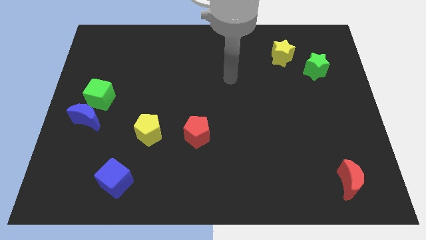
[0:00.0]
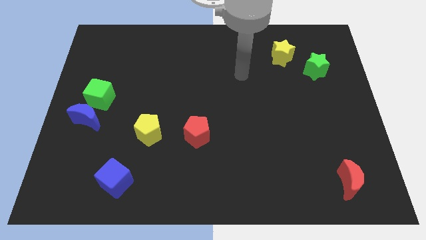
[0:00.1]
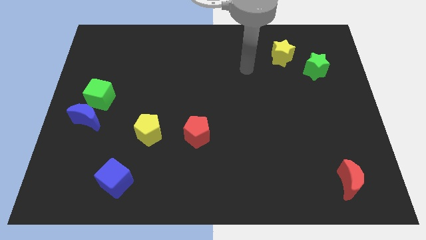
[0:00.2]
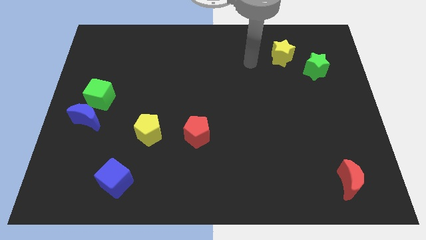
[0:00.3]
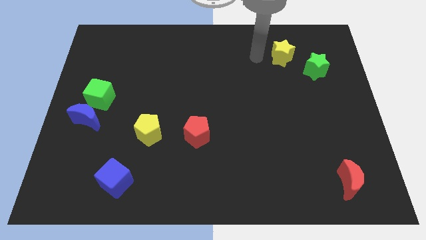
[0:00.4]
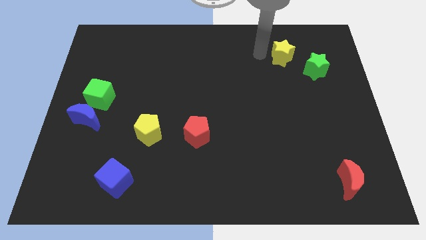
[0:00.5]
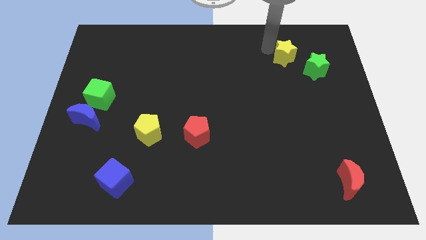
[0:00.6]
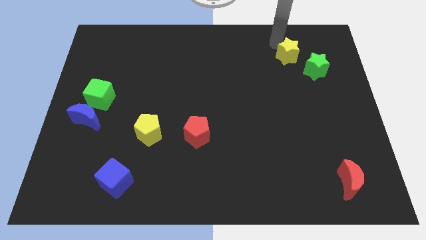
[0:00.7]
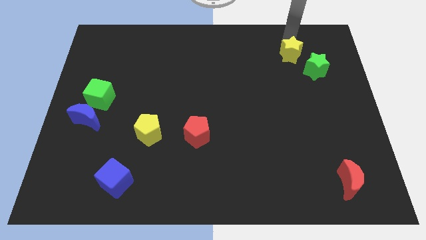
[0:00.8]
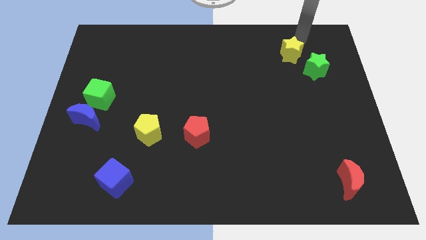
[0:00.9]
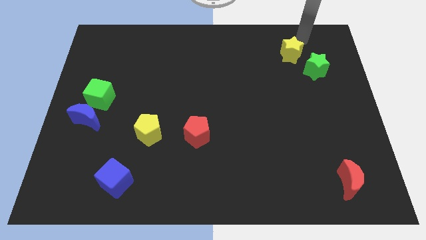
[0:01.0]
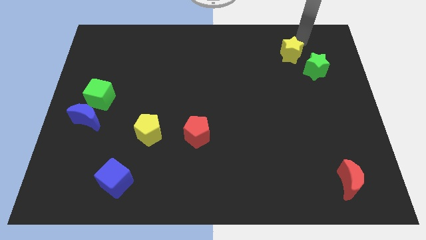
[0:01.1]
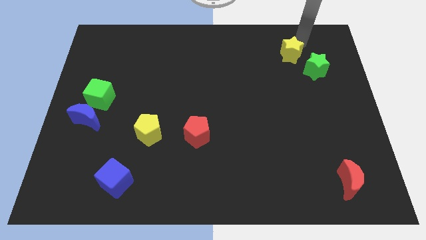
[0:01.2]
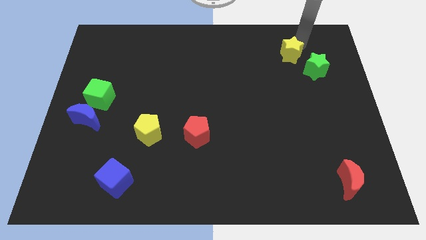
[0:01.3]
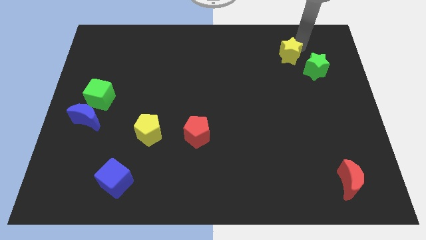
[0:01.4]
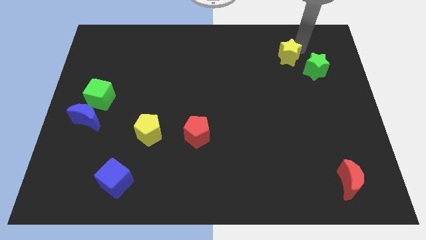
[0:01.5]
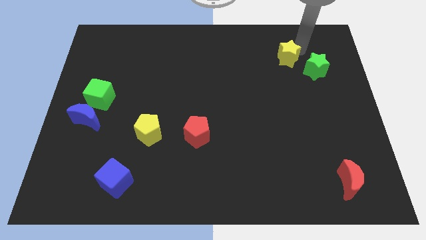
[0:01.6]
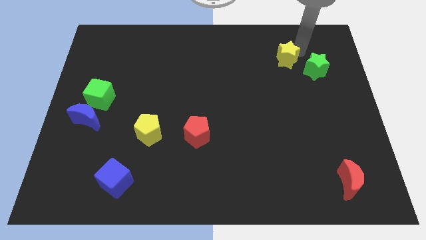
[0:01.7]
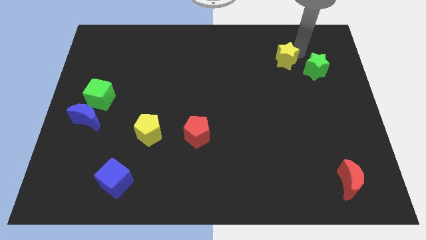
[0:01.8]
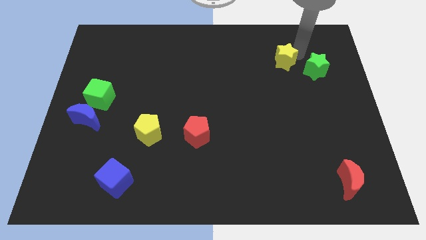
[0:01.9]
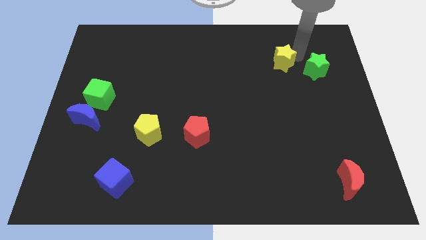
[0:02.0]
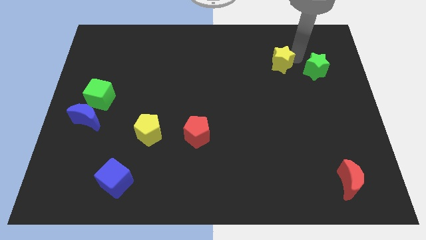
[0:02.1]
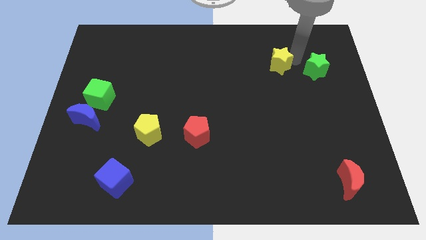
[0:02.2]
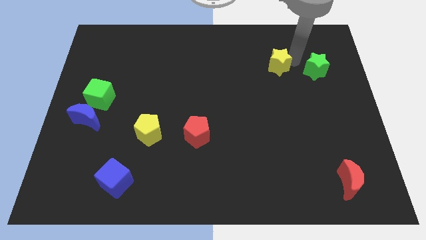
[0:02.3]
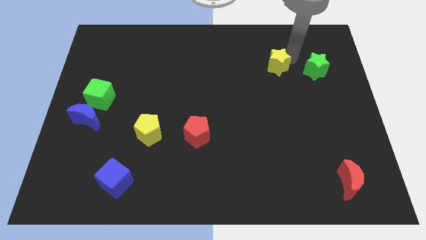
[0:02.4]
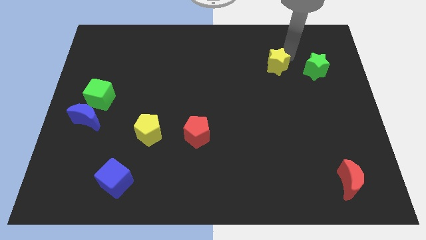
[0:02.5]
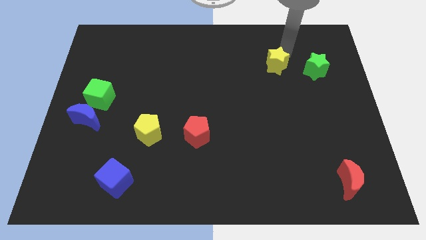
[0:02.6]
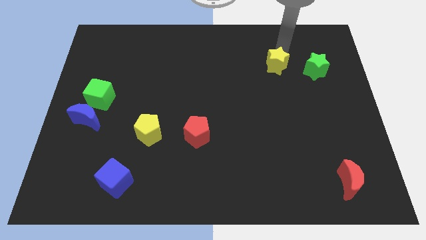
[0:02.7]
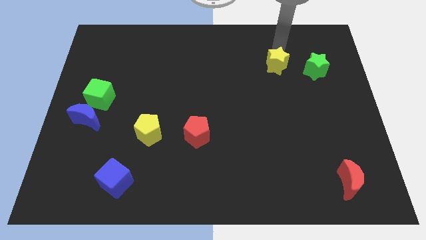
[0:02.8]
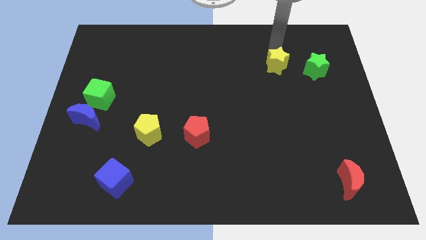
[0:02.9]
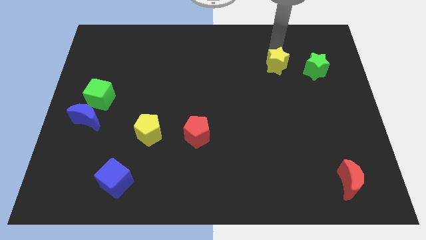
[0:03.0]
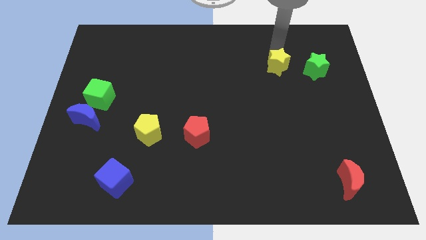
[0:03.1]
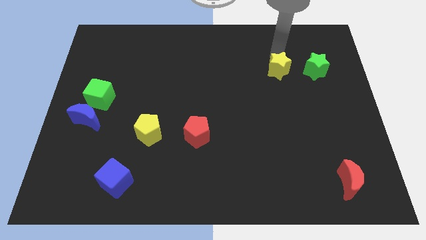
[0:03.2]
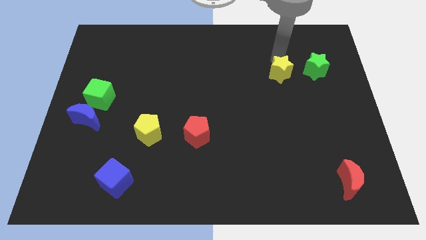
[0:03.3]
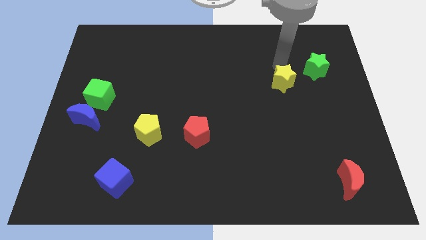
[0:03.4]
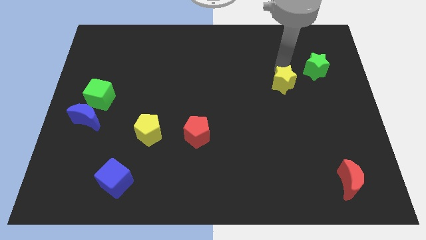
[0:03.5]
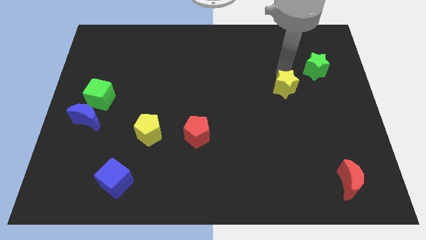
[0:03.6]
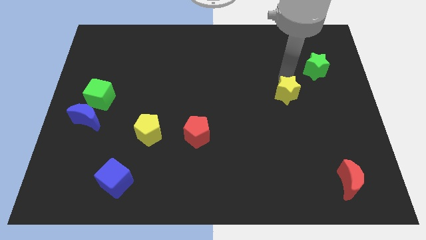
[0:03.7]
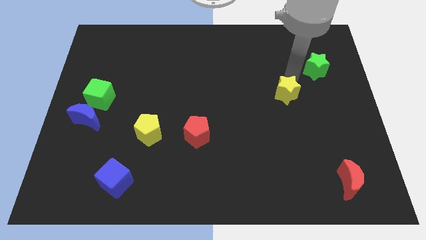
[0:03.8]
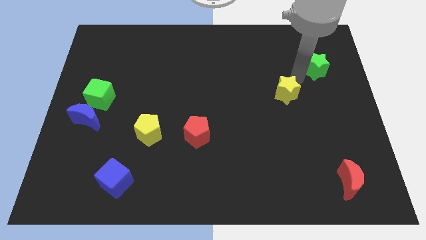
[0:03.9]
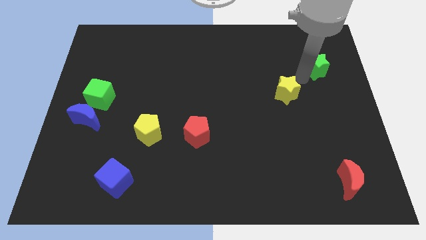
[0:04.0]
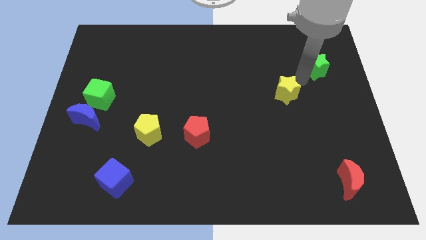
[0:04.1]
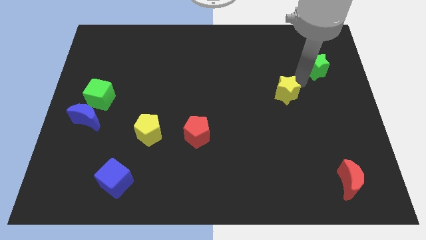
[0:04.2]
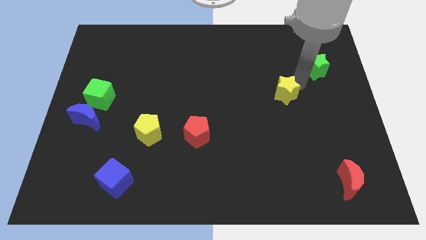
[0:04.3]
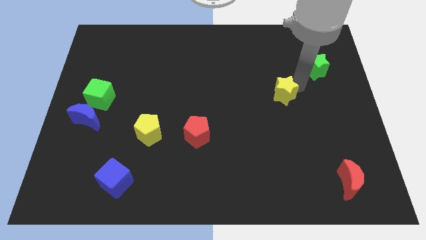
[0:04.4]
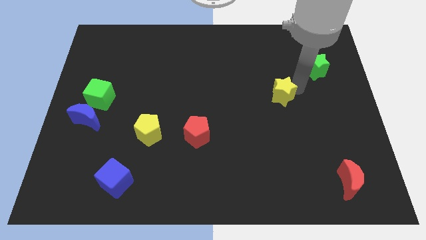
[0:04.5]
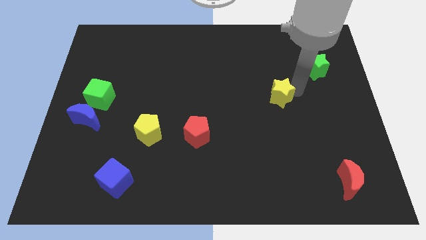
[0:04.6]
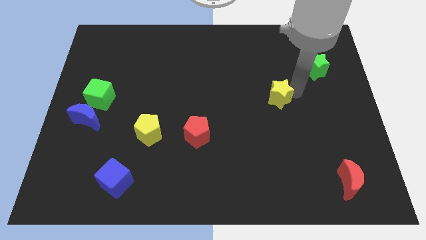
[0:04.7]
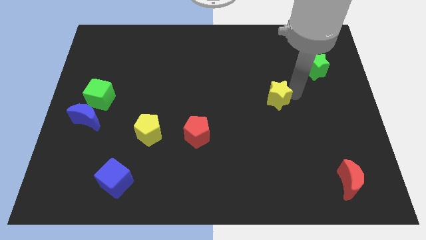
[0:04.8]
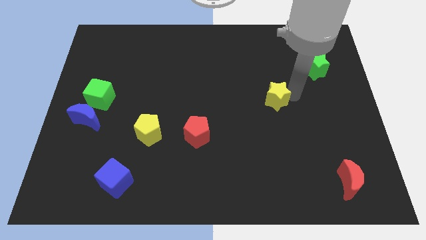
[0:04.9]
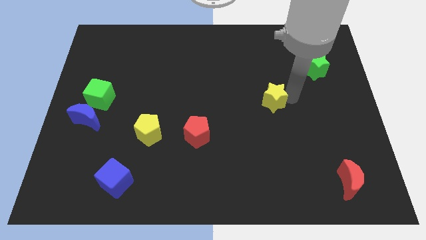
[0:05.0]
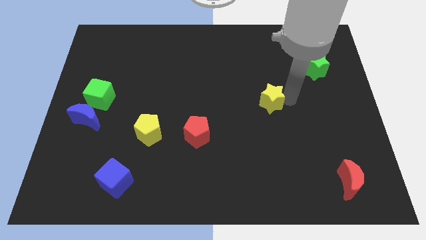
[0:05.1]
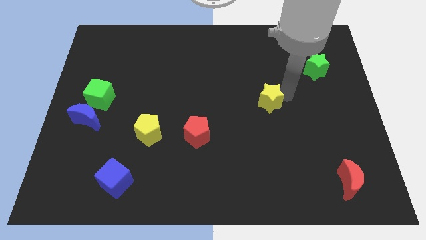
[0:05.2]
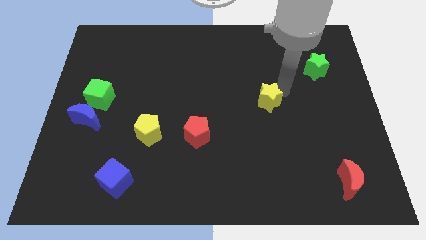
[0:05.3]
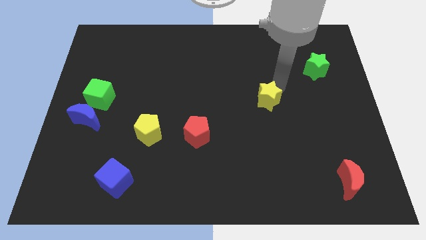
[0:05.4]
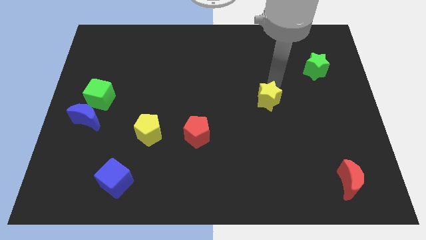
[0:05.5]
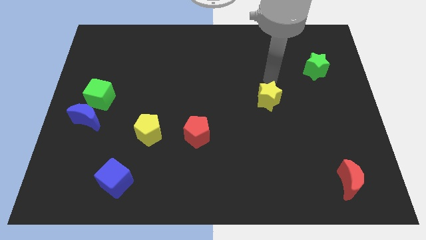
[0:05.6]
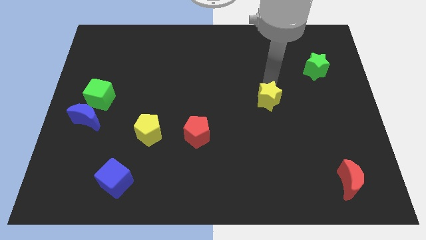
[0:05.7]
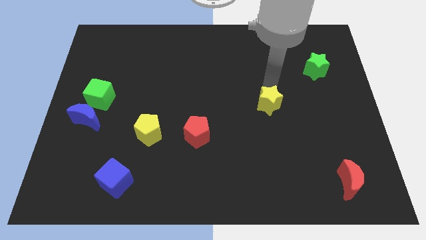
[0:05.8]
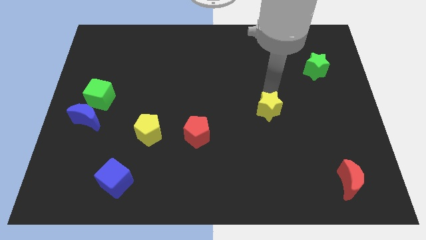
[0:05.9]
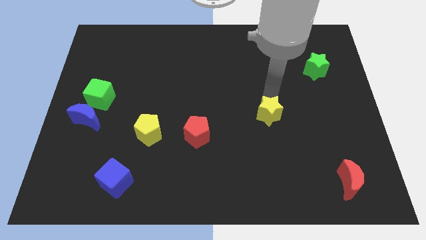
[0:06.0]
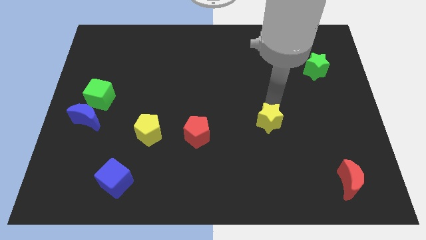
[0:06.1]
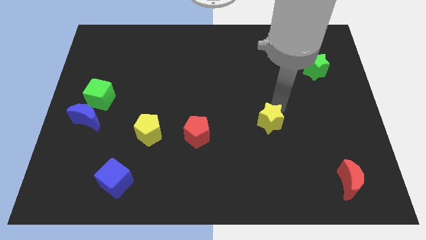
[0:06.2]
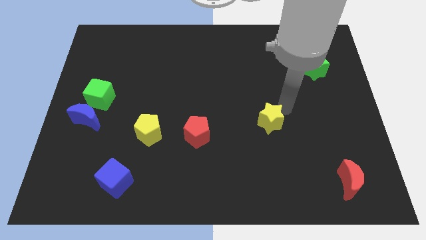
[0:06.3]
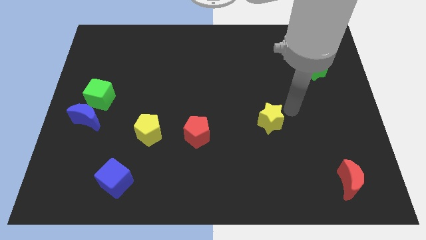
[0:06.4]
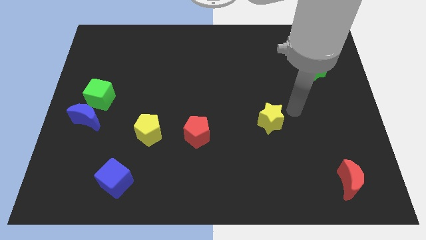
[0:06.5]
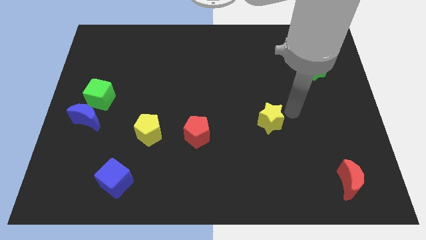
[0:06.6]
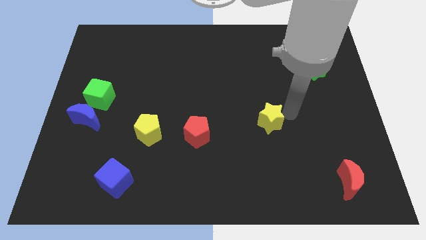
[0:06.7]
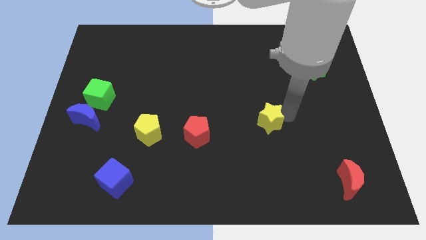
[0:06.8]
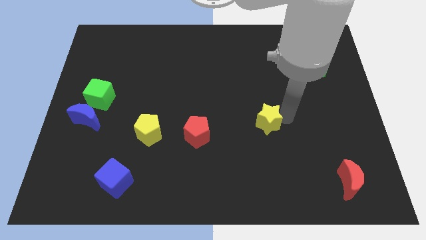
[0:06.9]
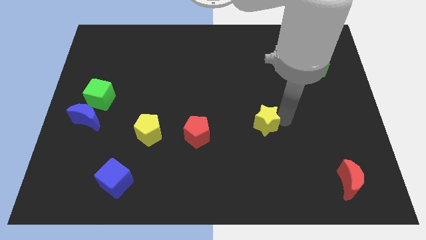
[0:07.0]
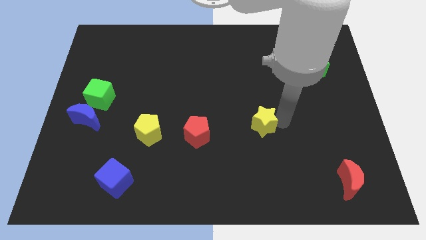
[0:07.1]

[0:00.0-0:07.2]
slide the yellow star just right of the red pentagon
